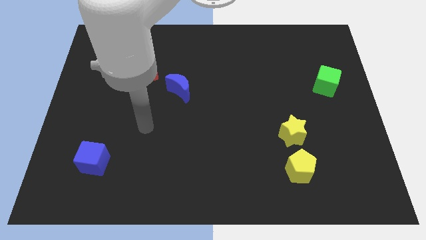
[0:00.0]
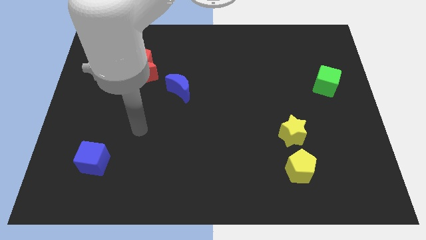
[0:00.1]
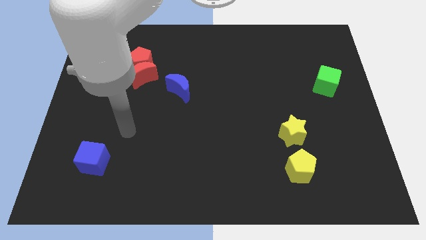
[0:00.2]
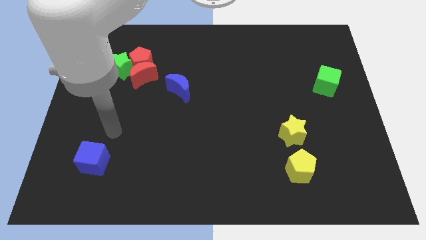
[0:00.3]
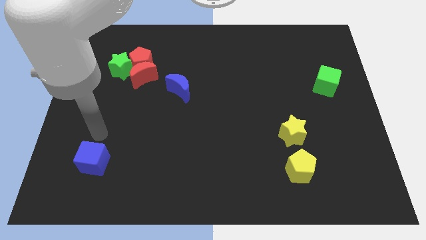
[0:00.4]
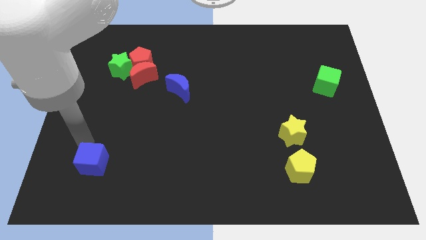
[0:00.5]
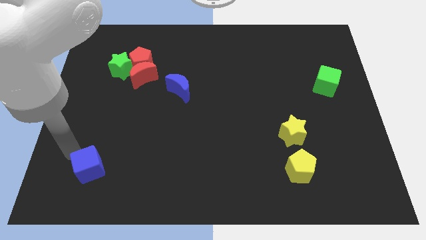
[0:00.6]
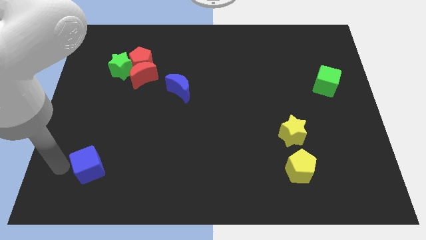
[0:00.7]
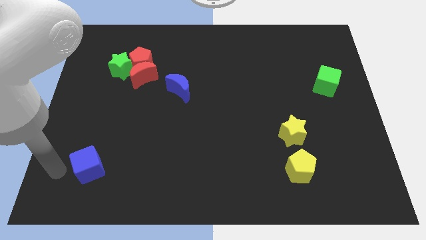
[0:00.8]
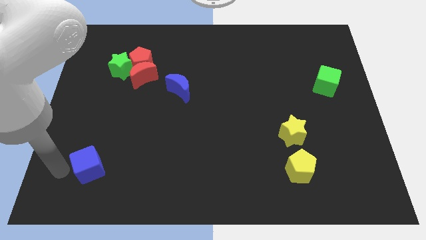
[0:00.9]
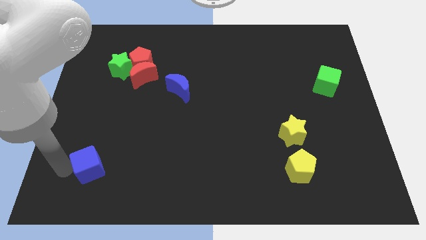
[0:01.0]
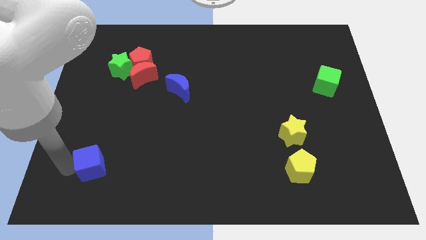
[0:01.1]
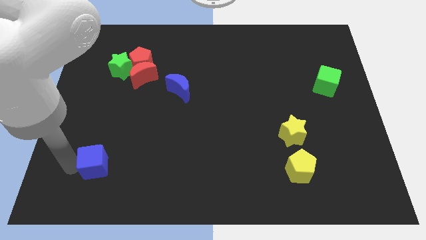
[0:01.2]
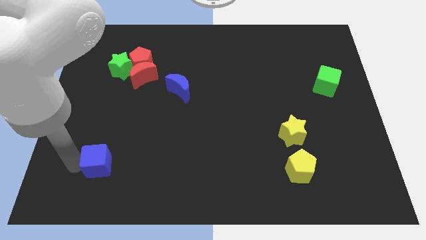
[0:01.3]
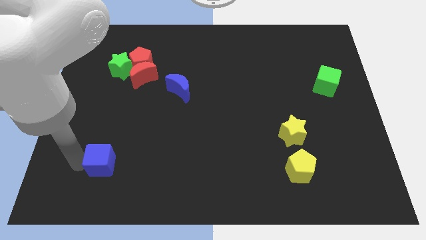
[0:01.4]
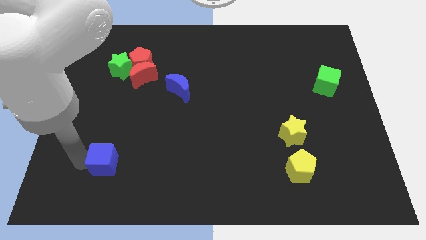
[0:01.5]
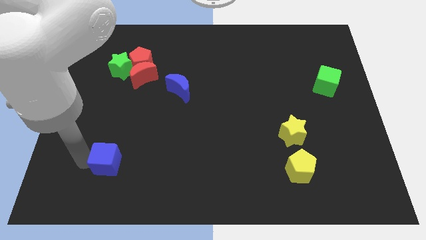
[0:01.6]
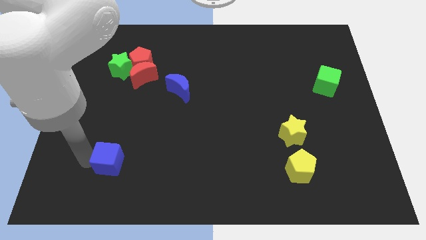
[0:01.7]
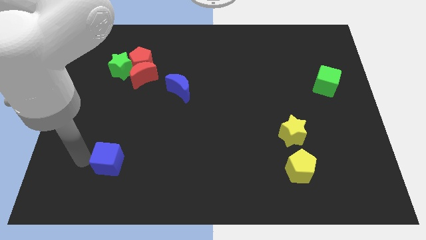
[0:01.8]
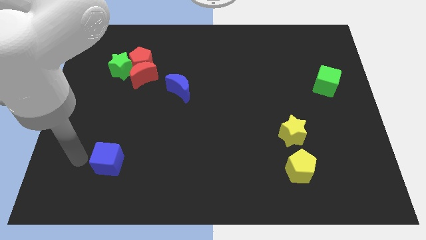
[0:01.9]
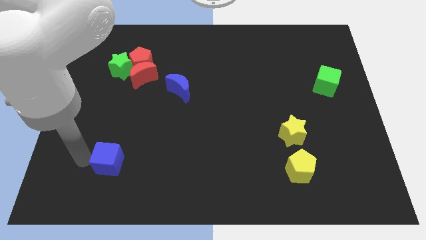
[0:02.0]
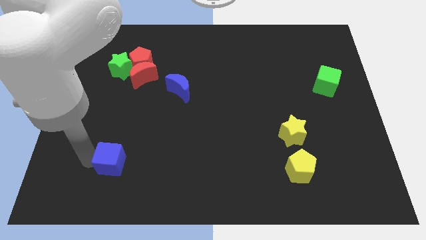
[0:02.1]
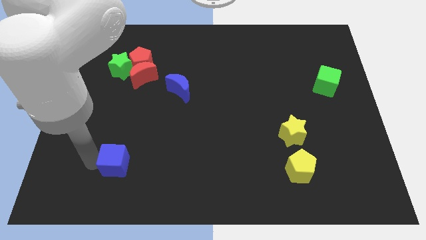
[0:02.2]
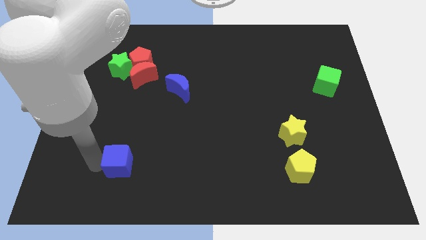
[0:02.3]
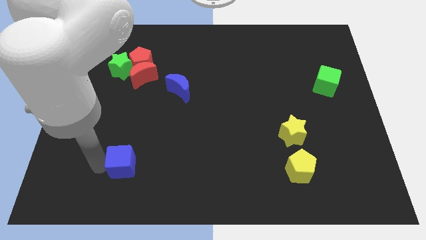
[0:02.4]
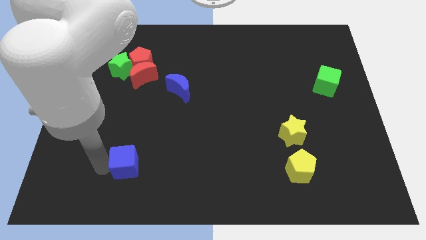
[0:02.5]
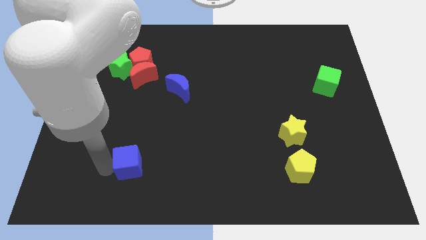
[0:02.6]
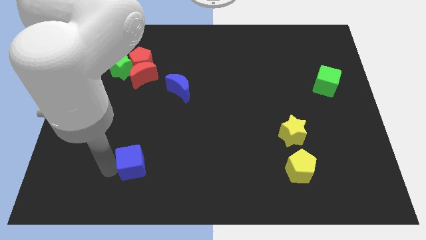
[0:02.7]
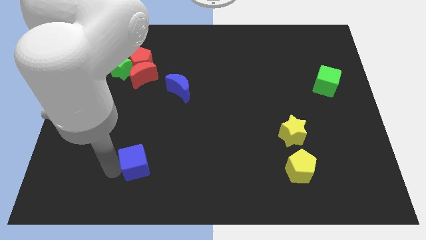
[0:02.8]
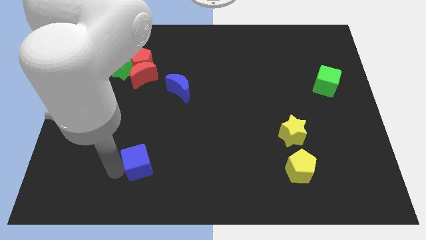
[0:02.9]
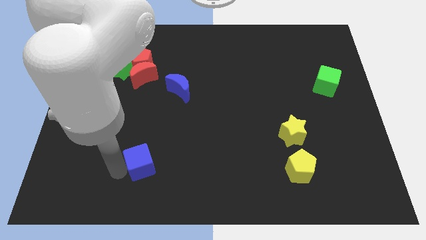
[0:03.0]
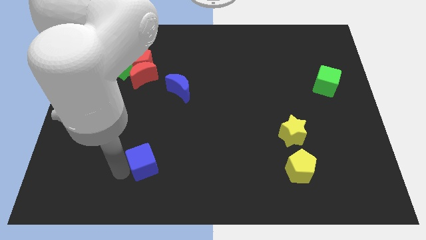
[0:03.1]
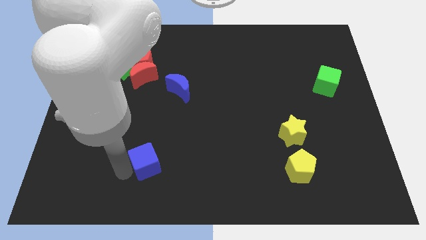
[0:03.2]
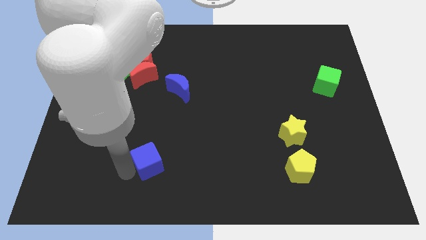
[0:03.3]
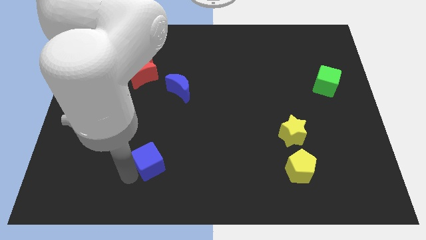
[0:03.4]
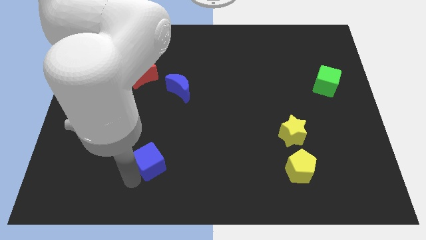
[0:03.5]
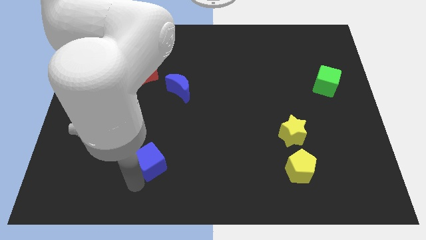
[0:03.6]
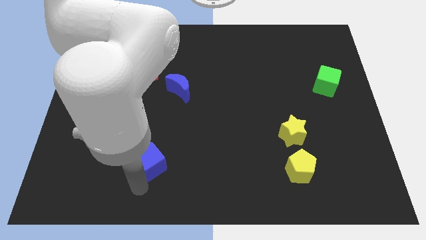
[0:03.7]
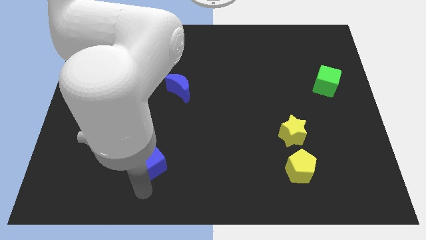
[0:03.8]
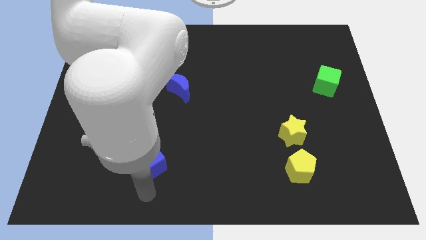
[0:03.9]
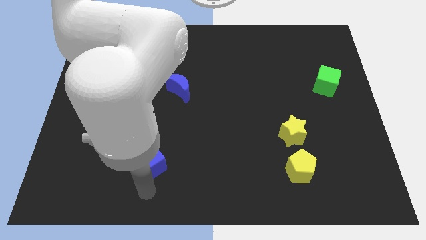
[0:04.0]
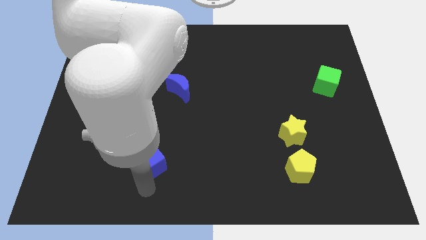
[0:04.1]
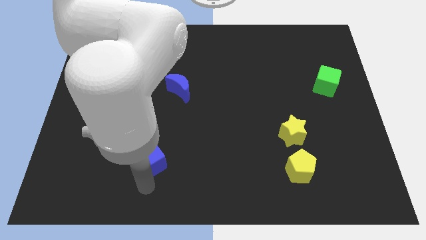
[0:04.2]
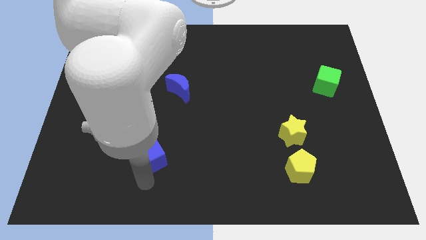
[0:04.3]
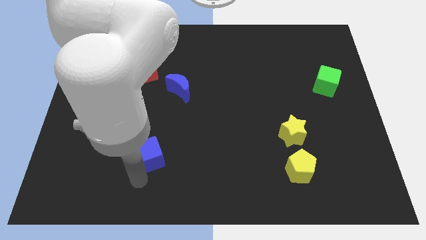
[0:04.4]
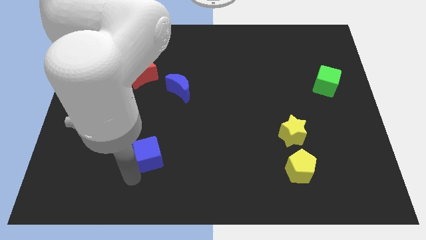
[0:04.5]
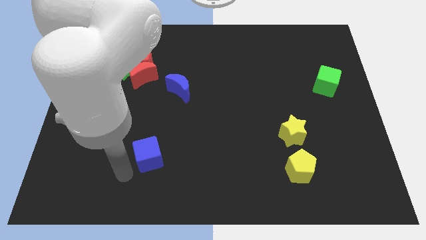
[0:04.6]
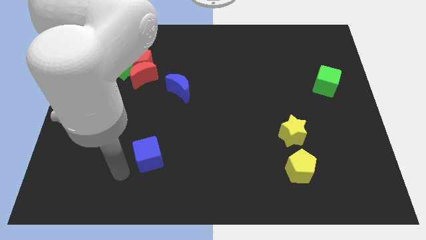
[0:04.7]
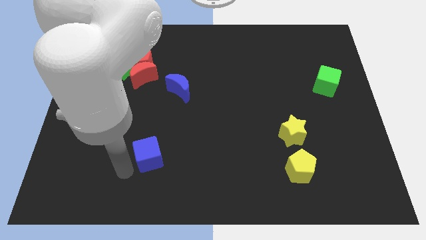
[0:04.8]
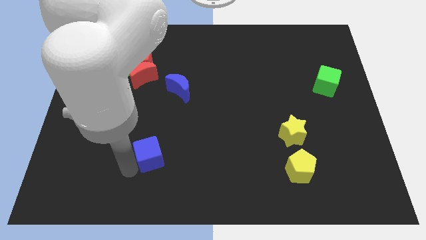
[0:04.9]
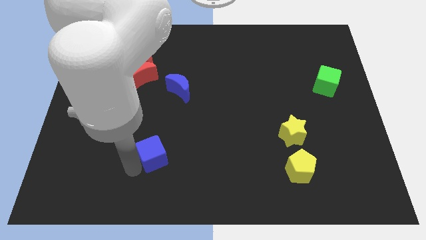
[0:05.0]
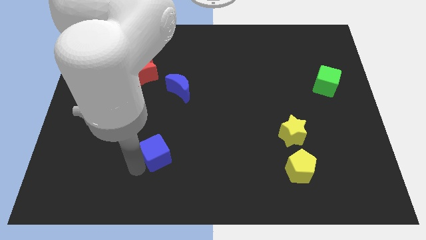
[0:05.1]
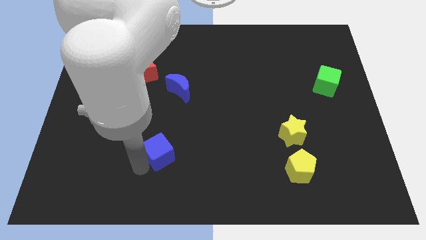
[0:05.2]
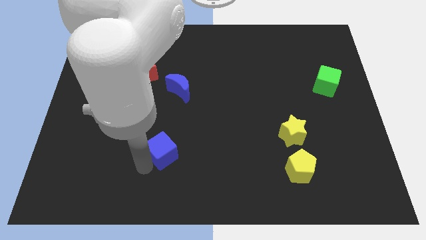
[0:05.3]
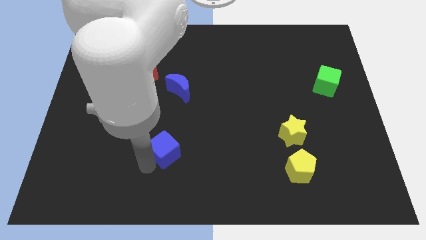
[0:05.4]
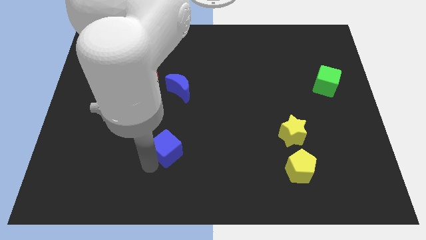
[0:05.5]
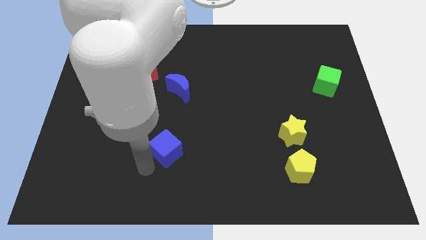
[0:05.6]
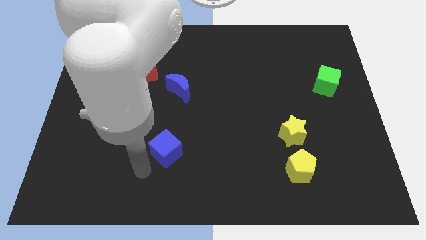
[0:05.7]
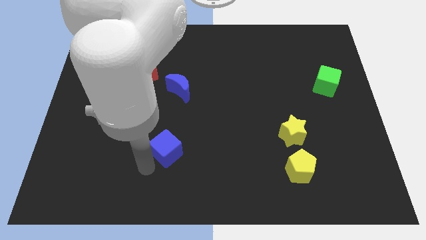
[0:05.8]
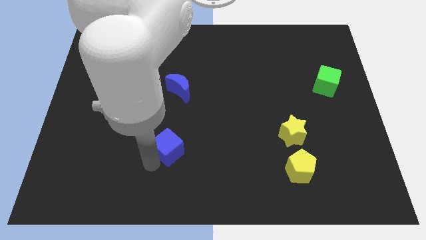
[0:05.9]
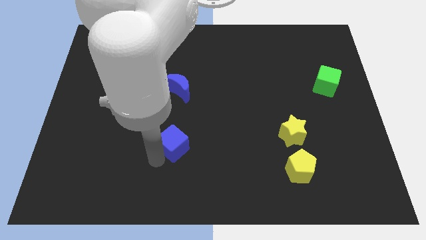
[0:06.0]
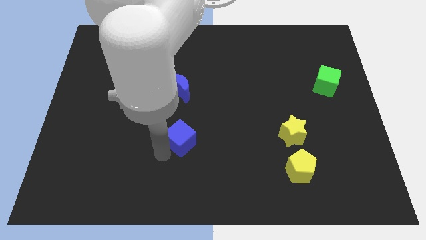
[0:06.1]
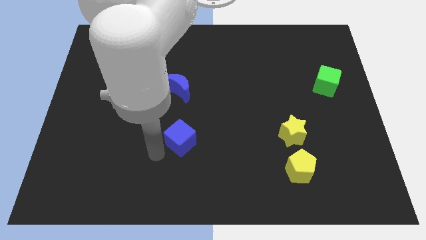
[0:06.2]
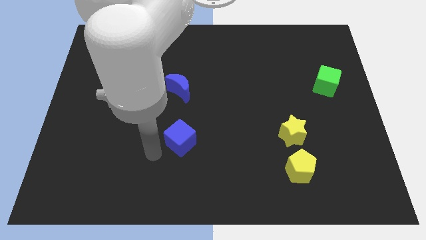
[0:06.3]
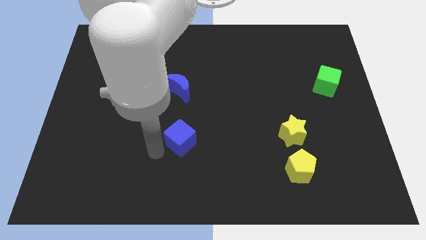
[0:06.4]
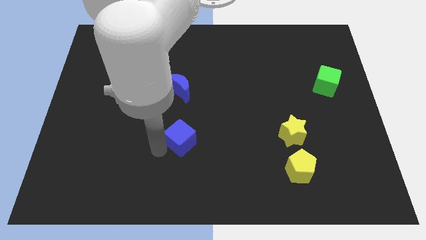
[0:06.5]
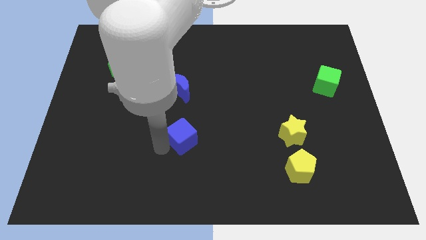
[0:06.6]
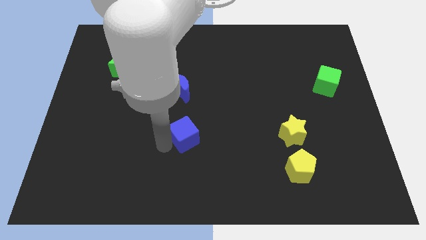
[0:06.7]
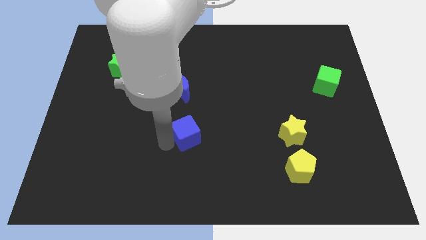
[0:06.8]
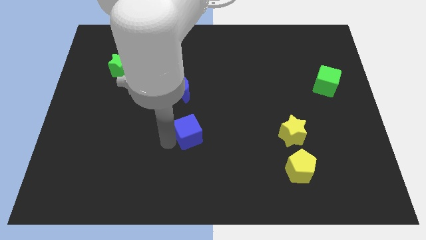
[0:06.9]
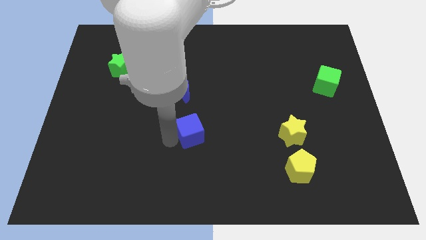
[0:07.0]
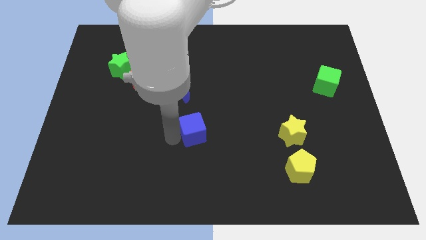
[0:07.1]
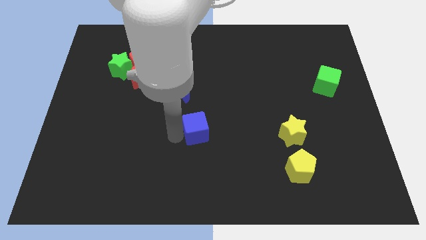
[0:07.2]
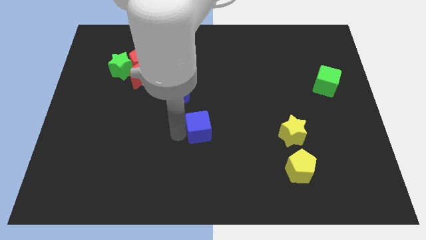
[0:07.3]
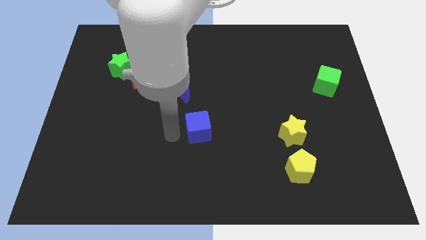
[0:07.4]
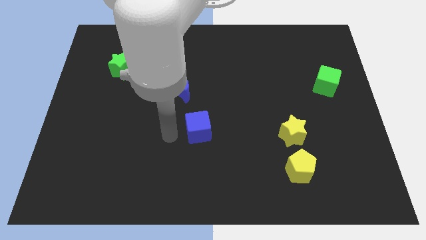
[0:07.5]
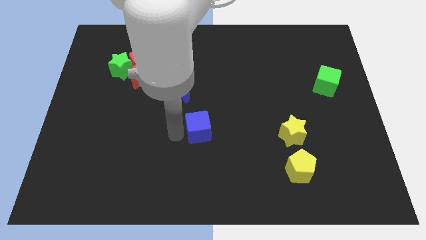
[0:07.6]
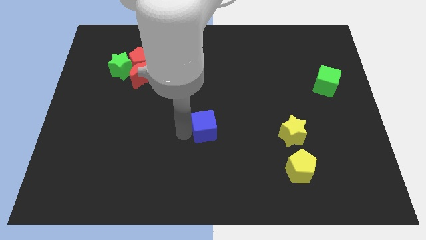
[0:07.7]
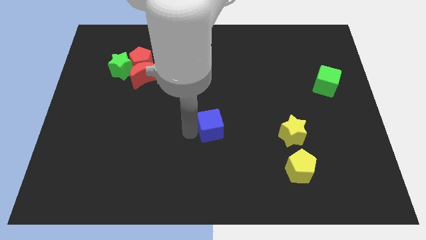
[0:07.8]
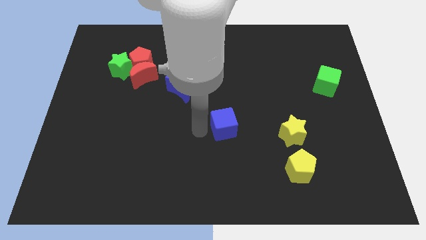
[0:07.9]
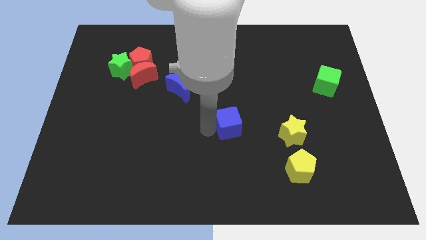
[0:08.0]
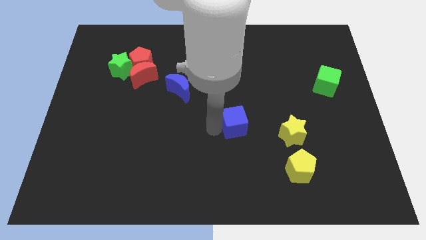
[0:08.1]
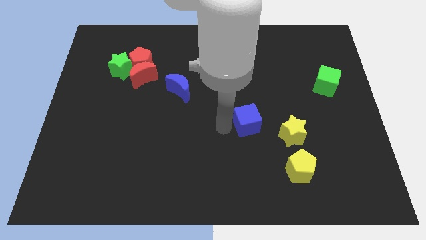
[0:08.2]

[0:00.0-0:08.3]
move the blue cube to the top left of the yellow star

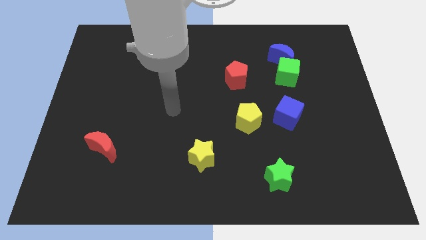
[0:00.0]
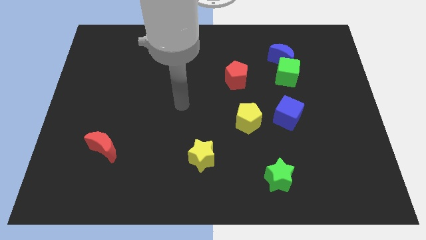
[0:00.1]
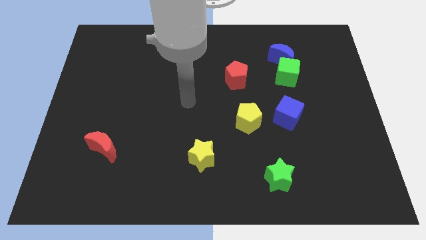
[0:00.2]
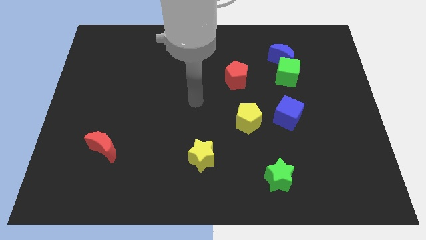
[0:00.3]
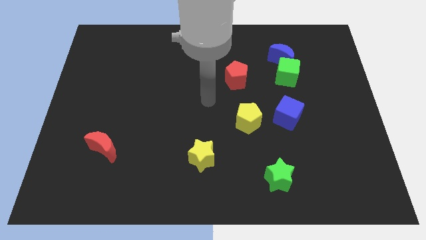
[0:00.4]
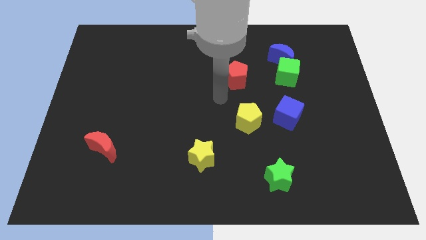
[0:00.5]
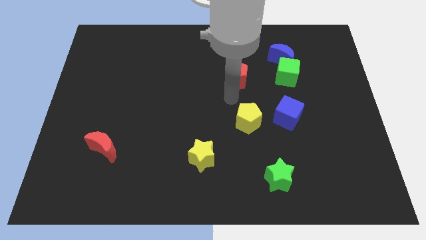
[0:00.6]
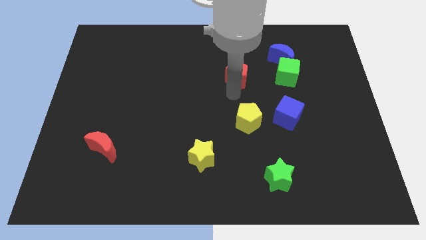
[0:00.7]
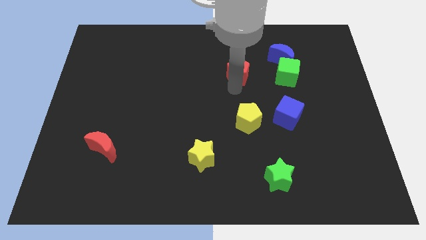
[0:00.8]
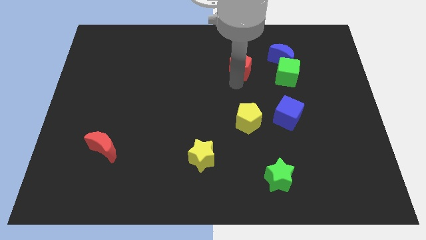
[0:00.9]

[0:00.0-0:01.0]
move the red pentagon left of the blue moon
